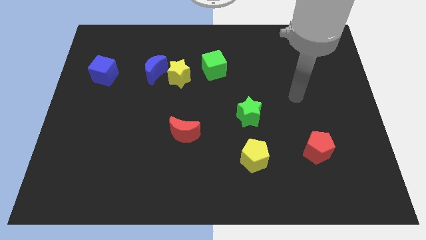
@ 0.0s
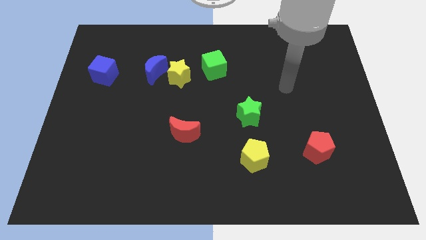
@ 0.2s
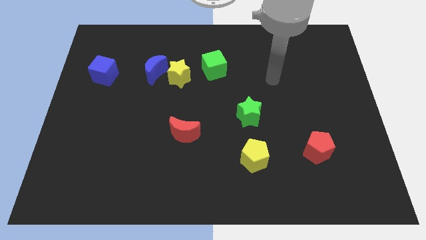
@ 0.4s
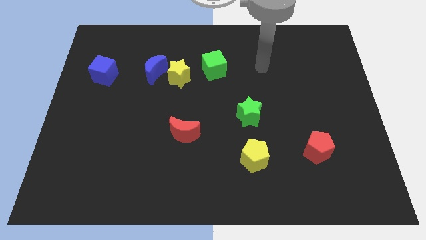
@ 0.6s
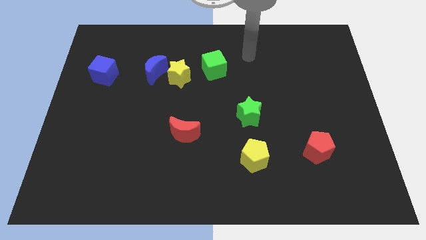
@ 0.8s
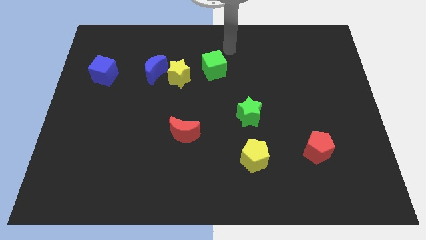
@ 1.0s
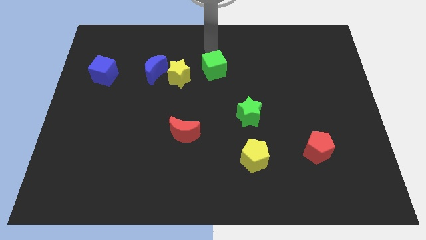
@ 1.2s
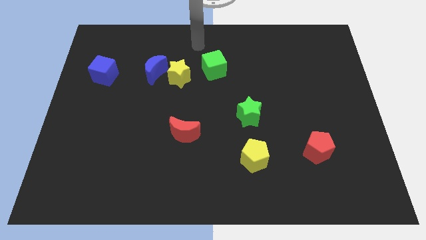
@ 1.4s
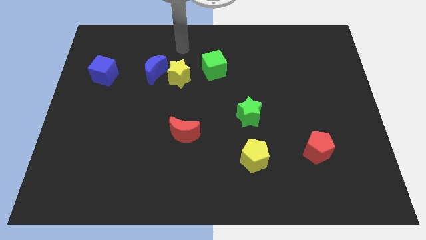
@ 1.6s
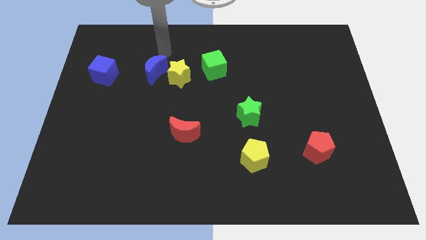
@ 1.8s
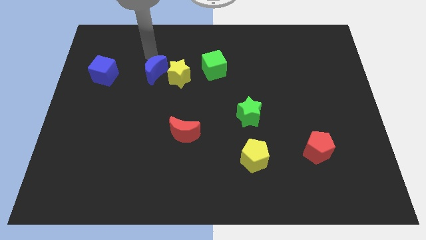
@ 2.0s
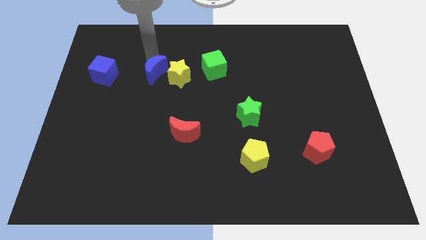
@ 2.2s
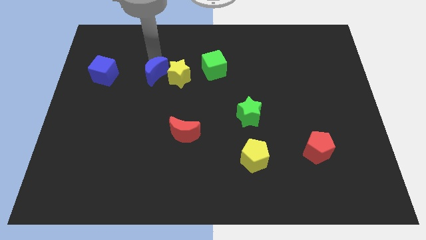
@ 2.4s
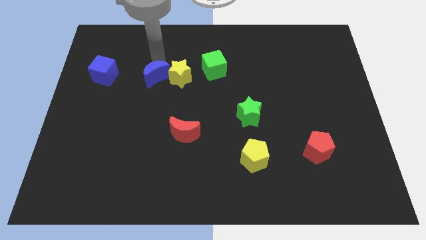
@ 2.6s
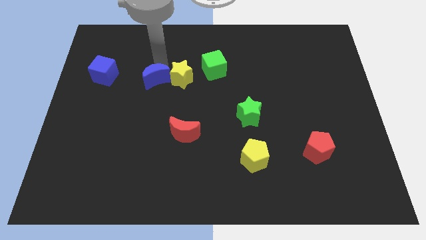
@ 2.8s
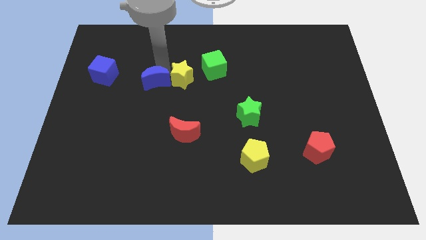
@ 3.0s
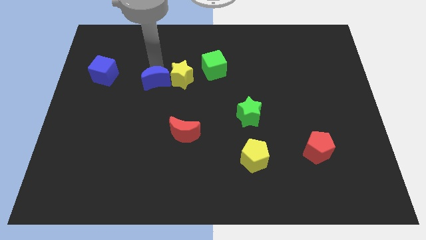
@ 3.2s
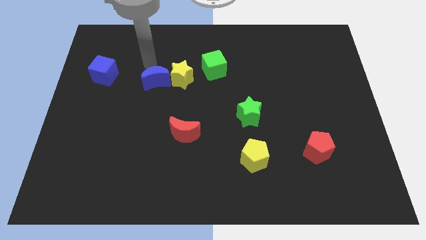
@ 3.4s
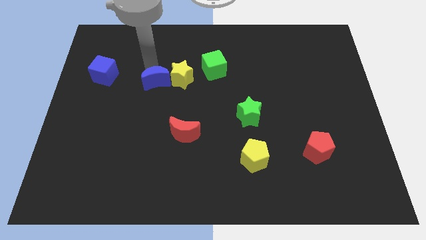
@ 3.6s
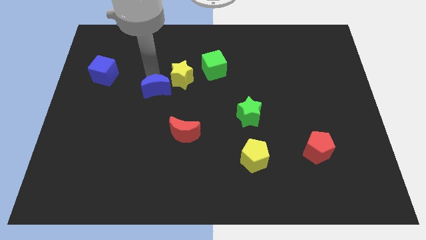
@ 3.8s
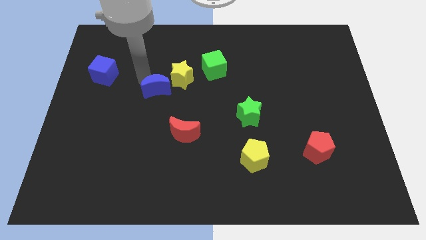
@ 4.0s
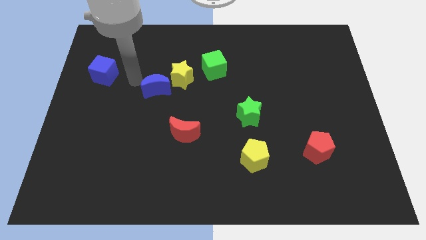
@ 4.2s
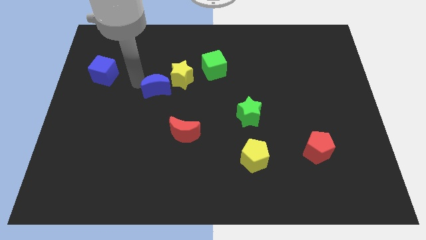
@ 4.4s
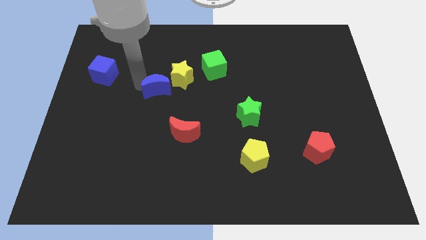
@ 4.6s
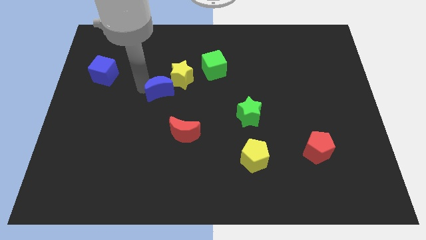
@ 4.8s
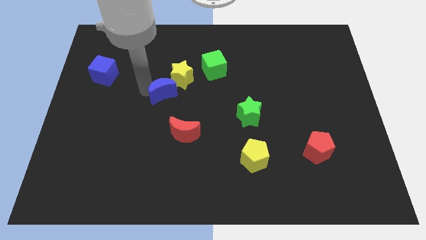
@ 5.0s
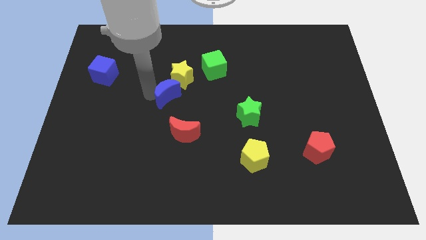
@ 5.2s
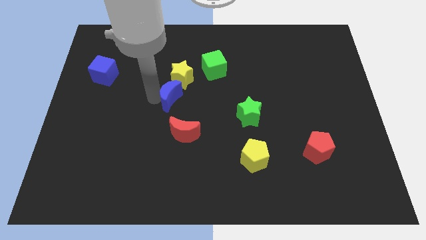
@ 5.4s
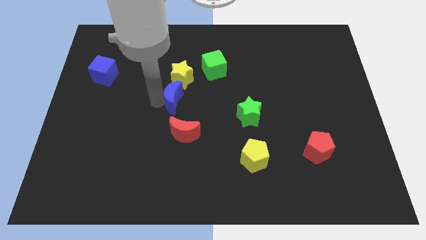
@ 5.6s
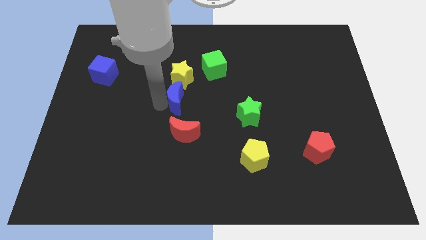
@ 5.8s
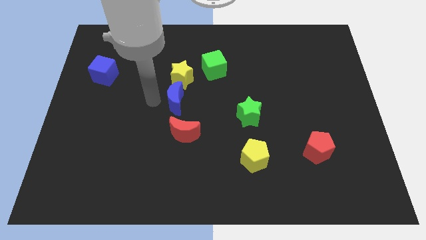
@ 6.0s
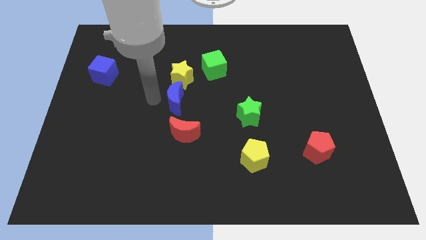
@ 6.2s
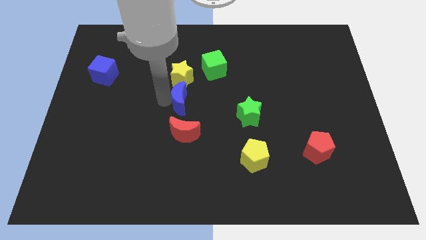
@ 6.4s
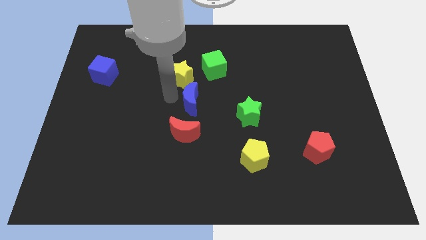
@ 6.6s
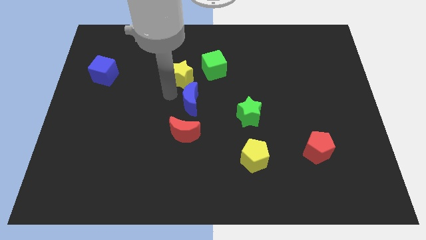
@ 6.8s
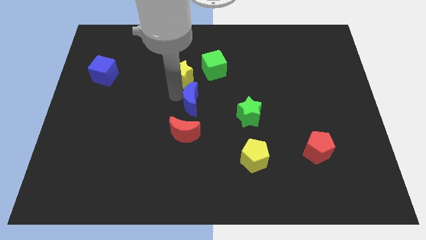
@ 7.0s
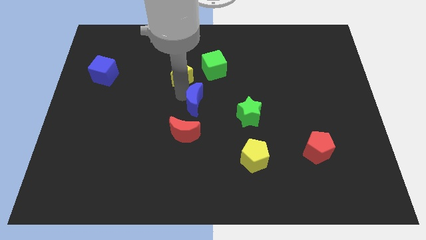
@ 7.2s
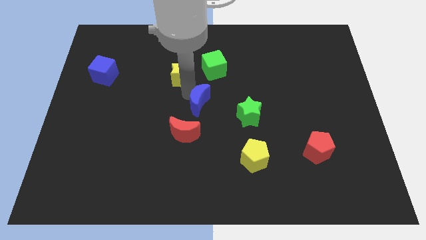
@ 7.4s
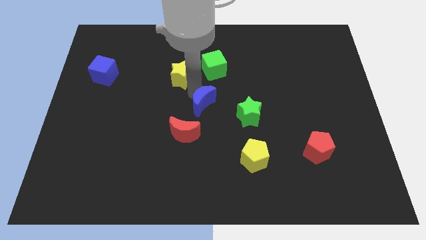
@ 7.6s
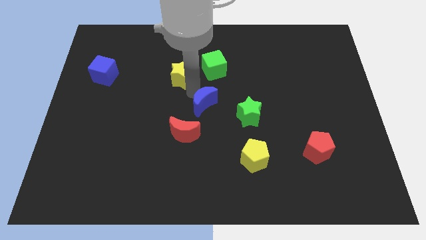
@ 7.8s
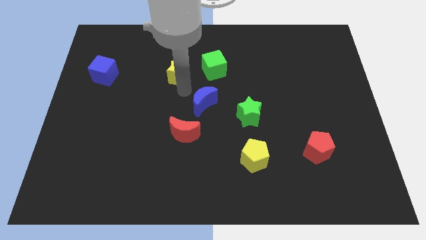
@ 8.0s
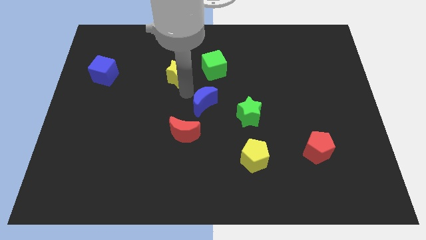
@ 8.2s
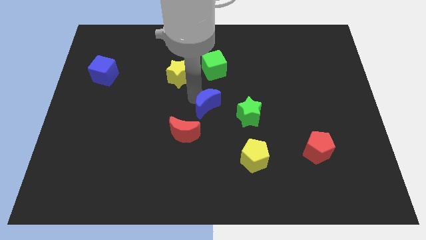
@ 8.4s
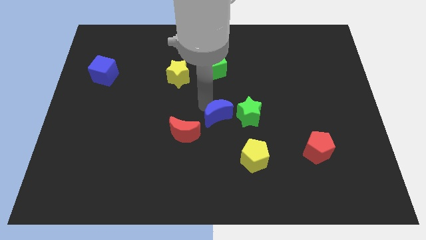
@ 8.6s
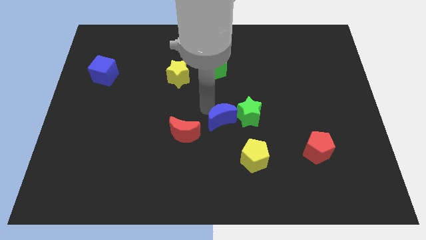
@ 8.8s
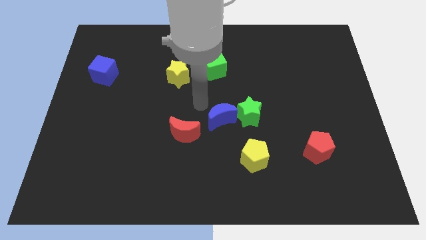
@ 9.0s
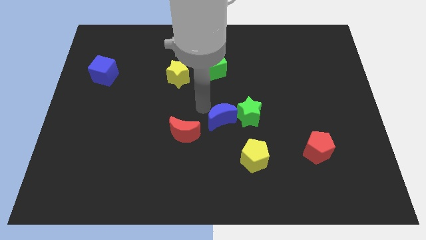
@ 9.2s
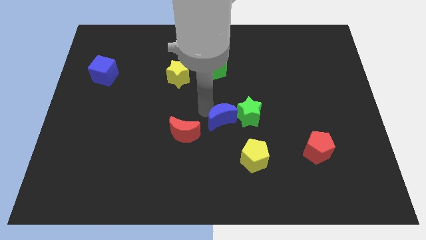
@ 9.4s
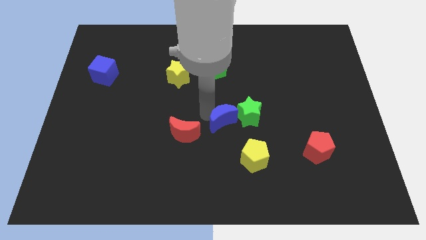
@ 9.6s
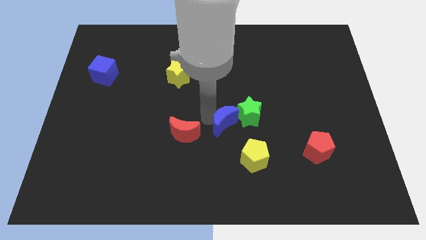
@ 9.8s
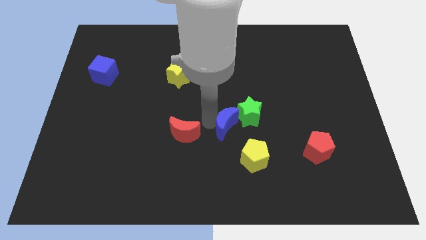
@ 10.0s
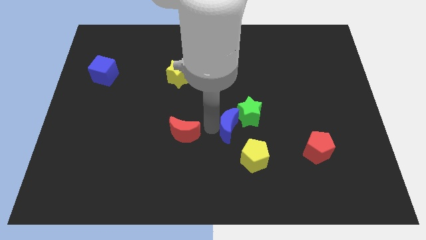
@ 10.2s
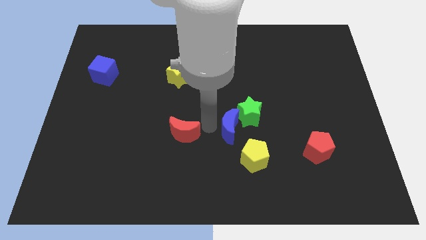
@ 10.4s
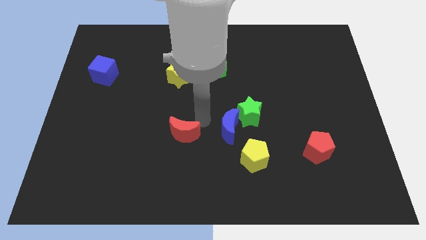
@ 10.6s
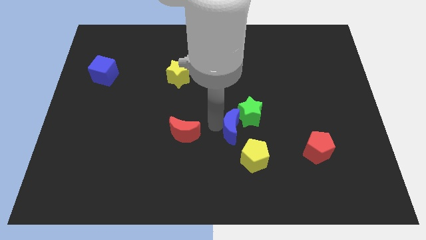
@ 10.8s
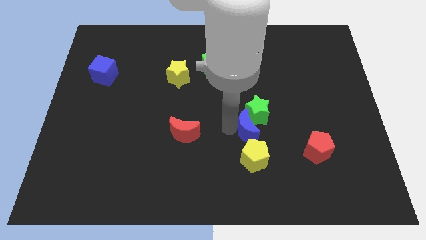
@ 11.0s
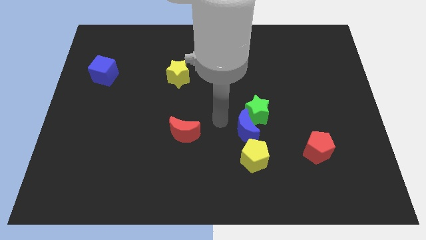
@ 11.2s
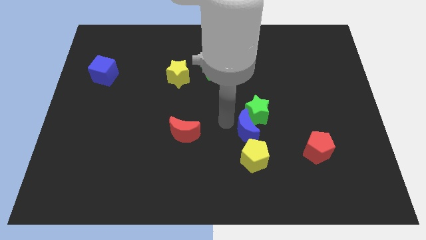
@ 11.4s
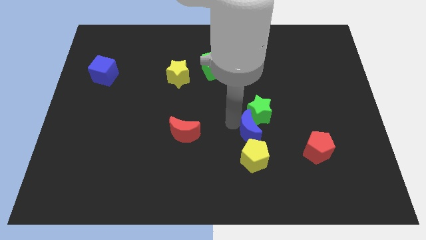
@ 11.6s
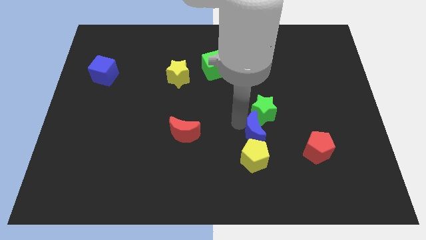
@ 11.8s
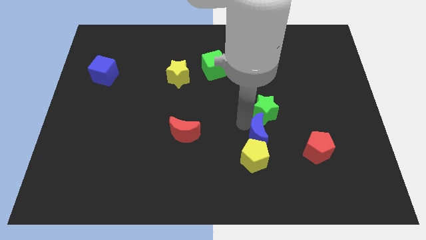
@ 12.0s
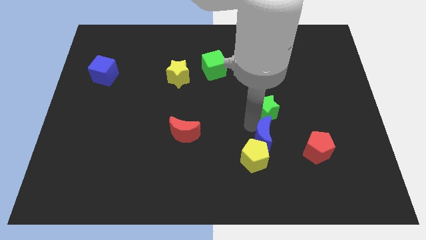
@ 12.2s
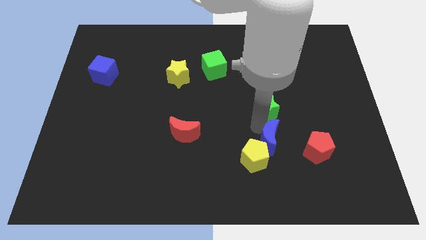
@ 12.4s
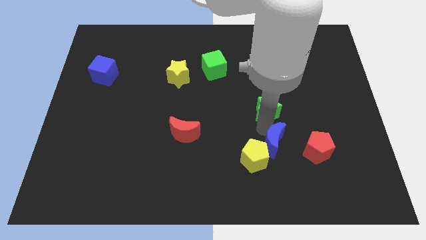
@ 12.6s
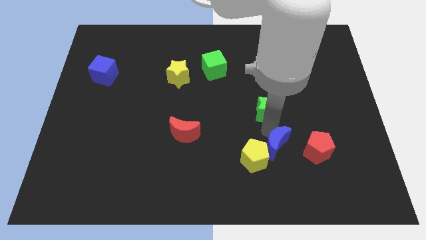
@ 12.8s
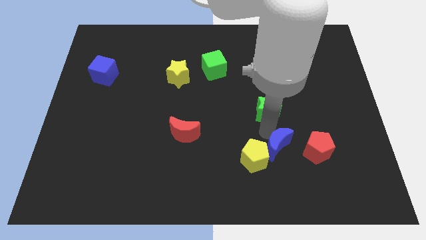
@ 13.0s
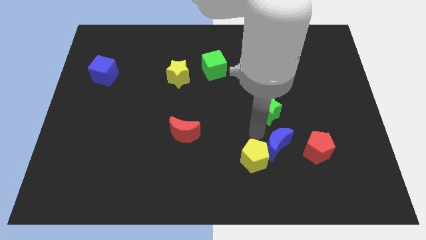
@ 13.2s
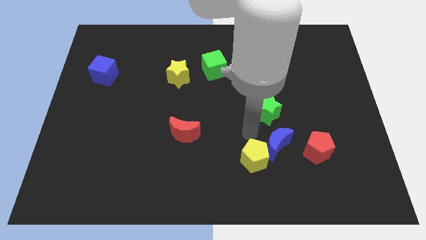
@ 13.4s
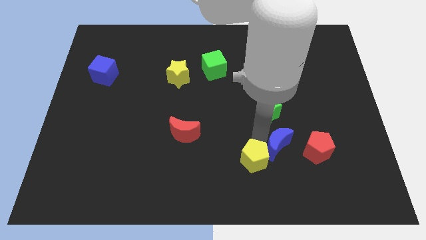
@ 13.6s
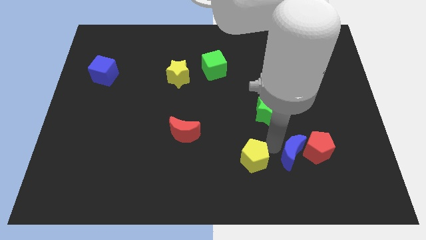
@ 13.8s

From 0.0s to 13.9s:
put the blue moon towards the red pentagon

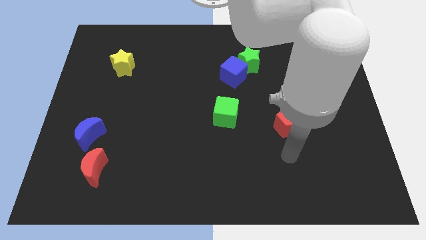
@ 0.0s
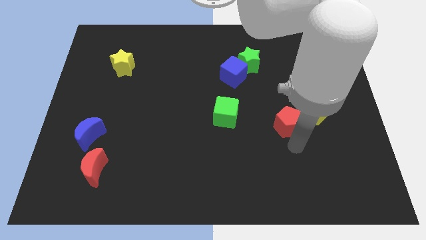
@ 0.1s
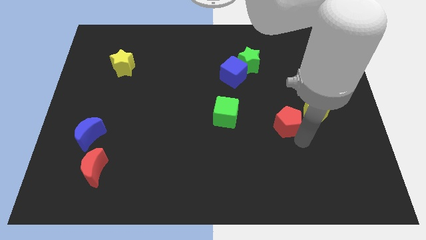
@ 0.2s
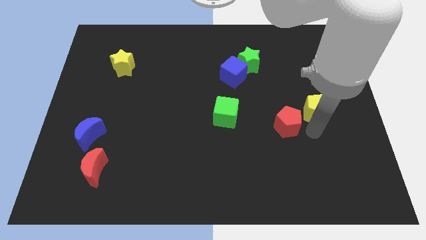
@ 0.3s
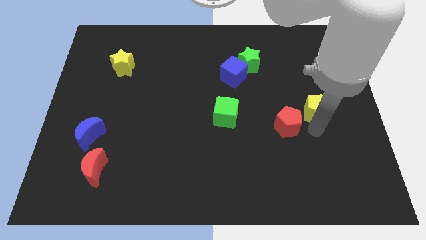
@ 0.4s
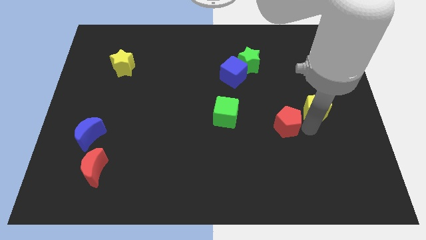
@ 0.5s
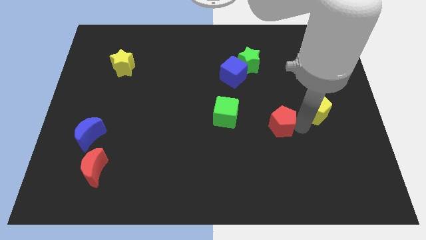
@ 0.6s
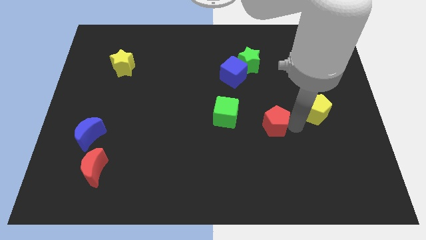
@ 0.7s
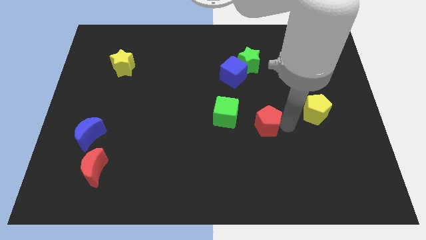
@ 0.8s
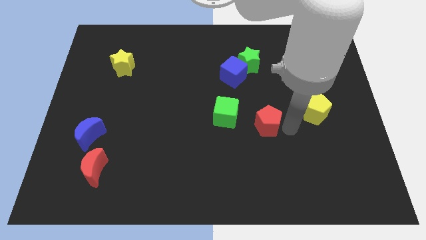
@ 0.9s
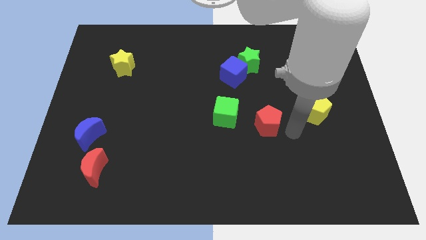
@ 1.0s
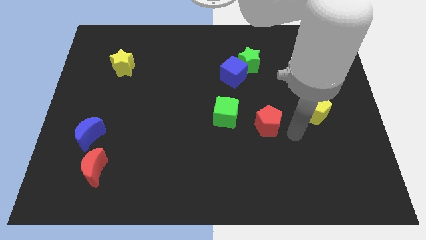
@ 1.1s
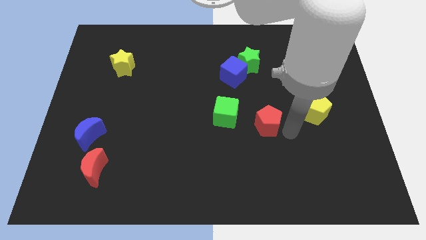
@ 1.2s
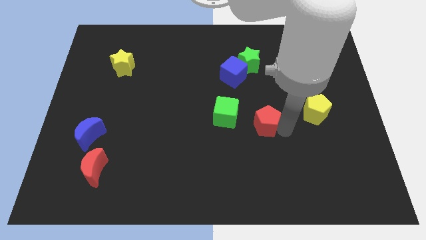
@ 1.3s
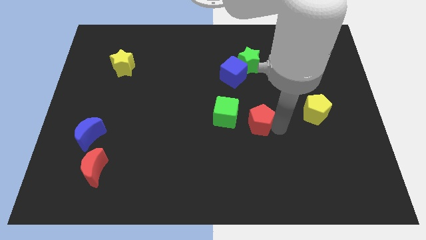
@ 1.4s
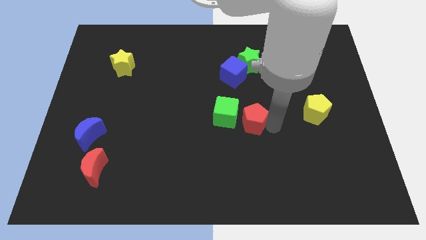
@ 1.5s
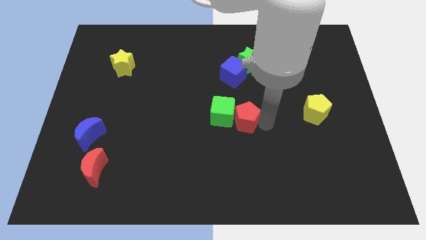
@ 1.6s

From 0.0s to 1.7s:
move the red pentagon towards the green cube
